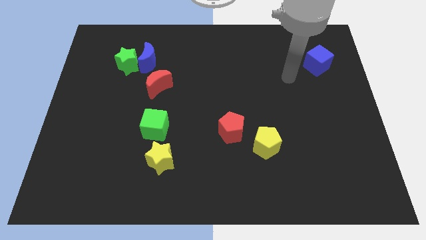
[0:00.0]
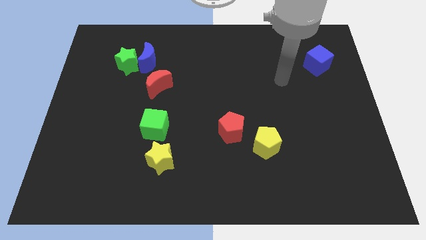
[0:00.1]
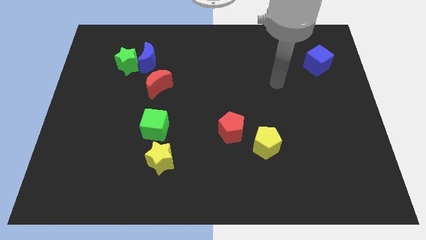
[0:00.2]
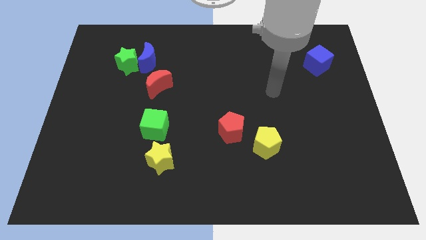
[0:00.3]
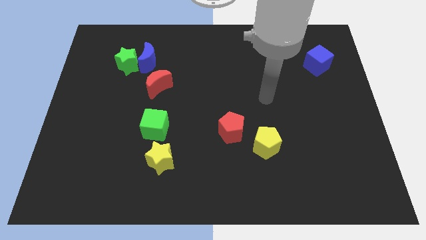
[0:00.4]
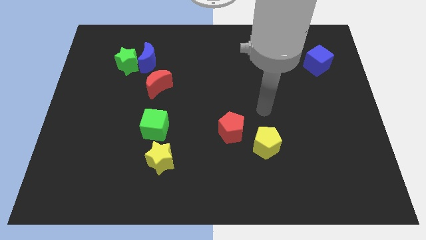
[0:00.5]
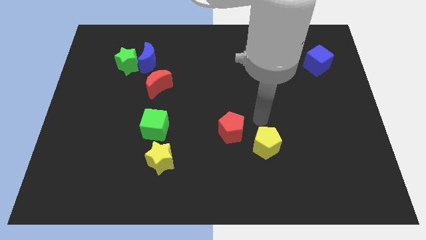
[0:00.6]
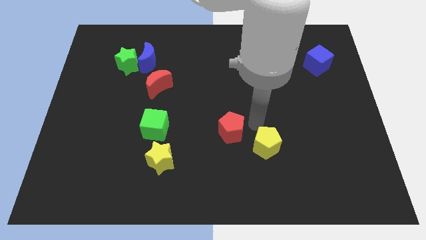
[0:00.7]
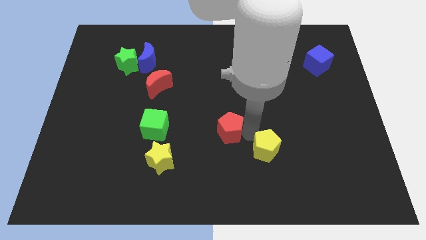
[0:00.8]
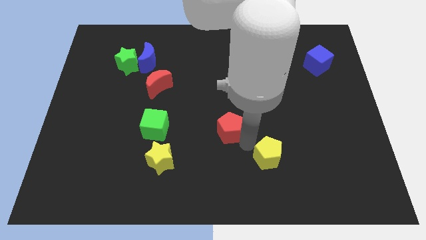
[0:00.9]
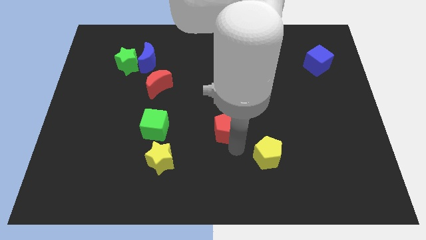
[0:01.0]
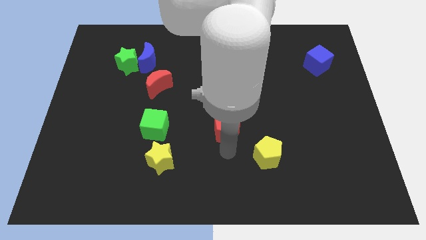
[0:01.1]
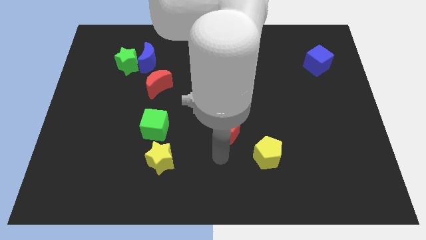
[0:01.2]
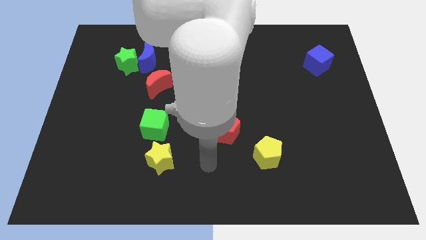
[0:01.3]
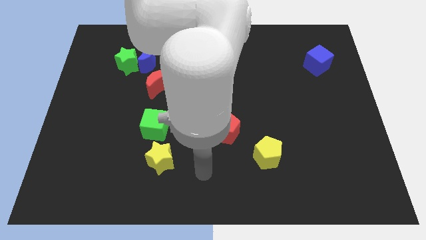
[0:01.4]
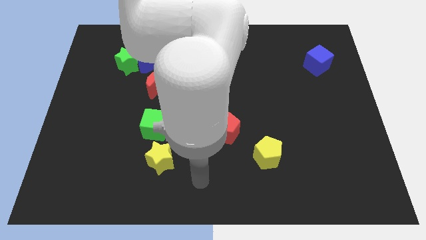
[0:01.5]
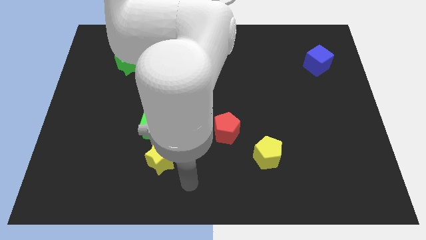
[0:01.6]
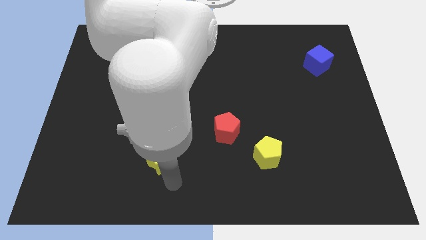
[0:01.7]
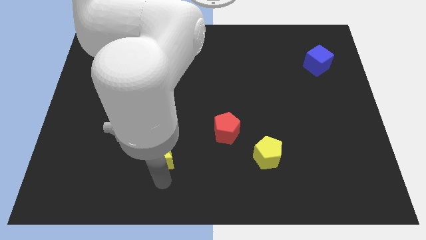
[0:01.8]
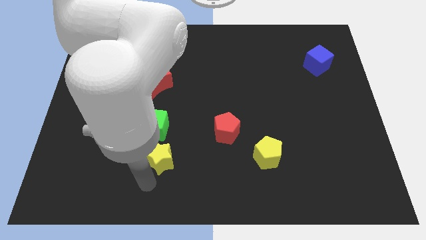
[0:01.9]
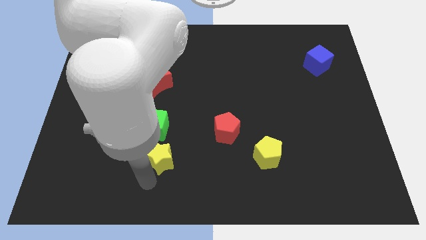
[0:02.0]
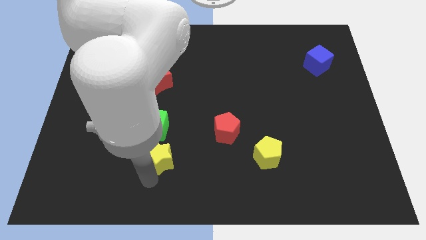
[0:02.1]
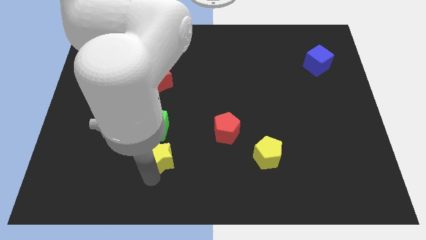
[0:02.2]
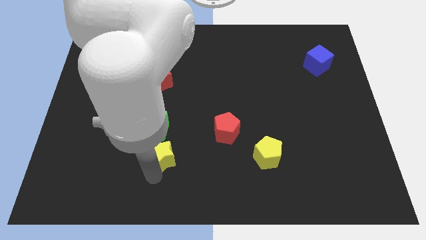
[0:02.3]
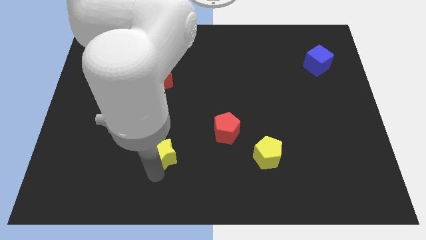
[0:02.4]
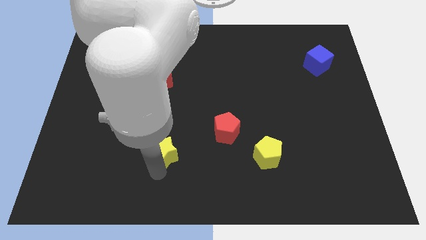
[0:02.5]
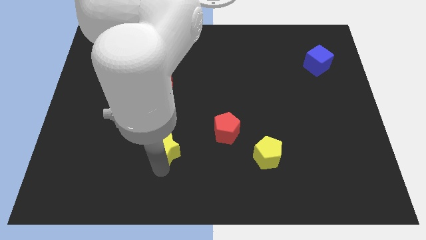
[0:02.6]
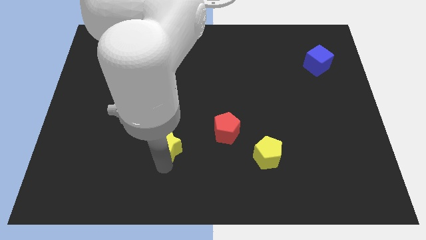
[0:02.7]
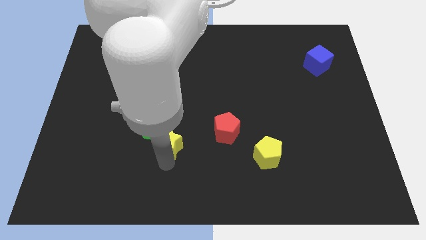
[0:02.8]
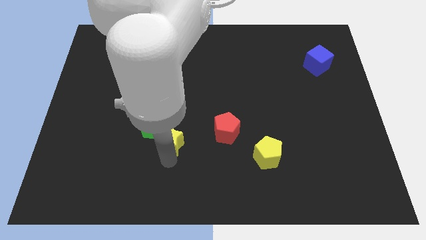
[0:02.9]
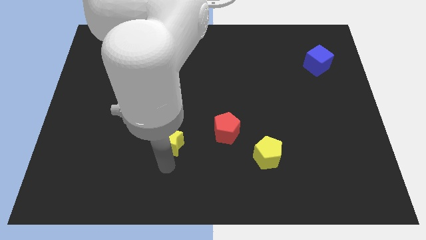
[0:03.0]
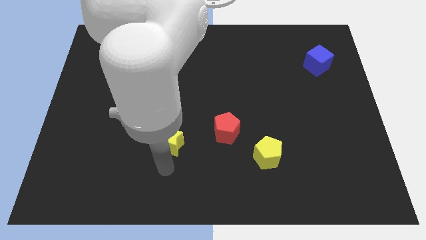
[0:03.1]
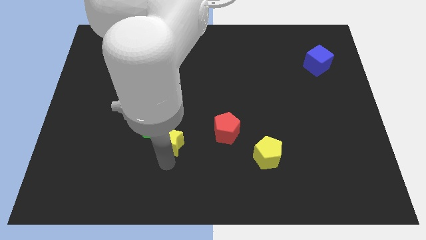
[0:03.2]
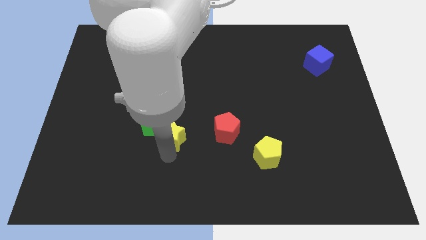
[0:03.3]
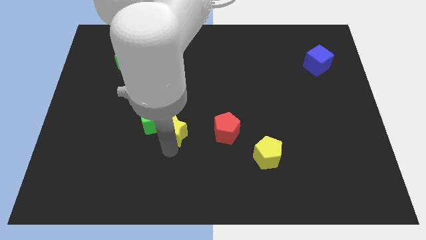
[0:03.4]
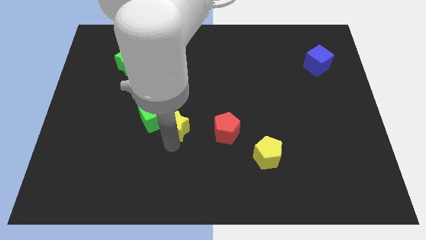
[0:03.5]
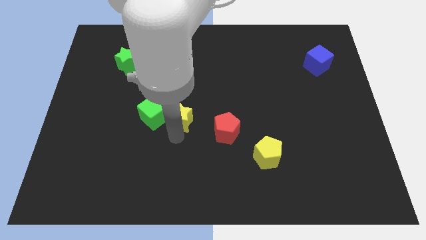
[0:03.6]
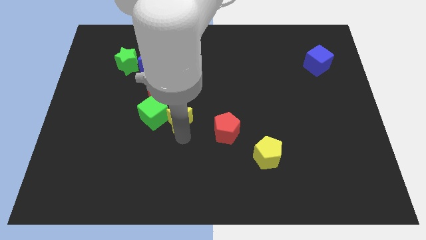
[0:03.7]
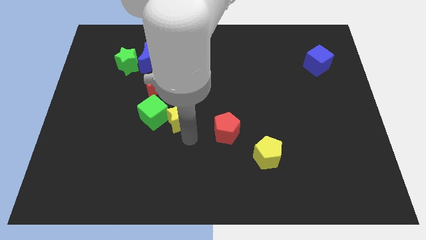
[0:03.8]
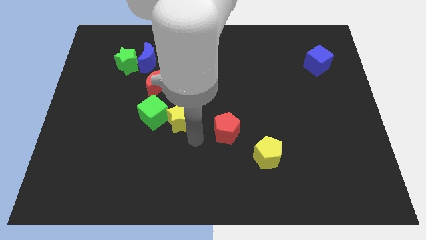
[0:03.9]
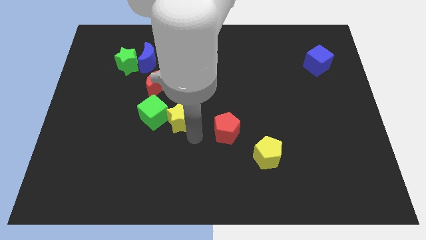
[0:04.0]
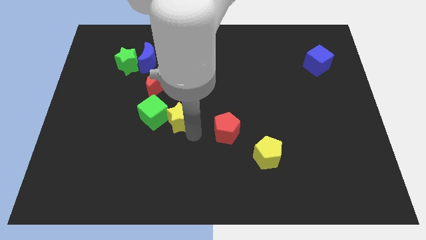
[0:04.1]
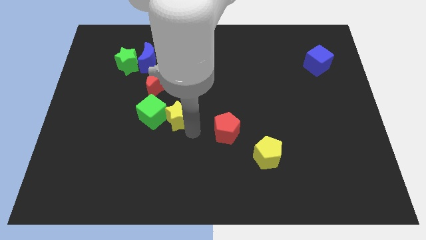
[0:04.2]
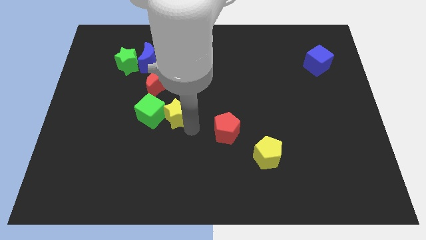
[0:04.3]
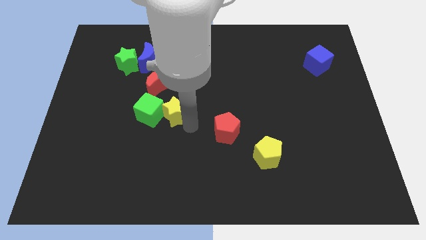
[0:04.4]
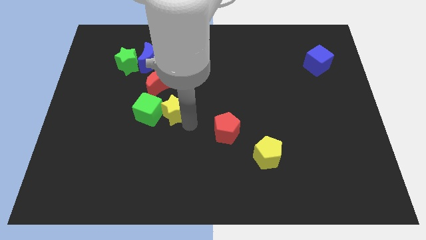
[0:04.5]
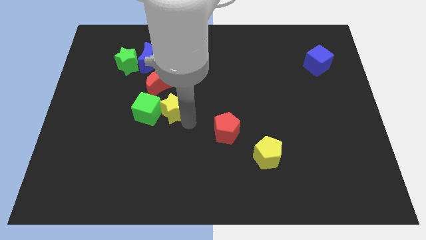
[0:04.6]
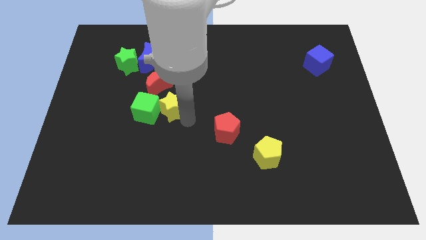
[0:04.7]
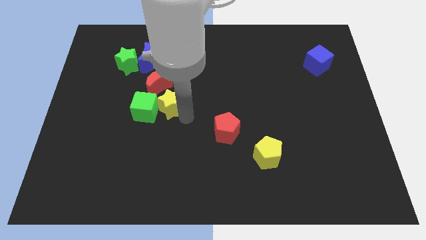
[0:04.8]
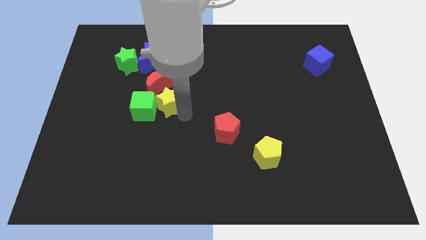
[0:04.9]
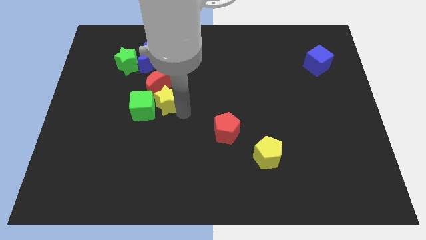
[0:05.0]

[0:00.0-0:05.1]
put the yellow star towards the red moon

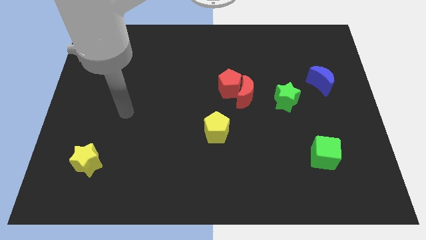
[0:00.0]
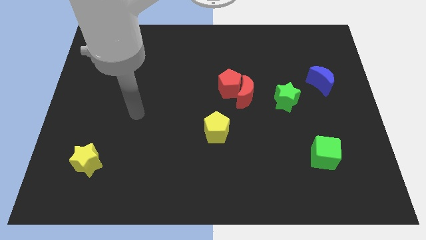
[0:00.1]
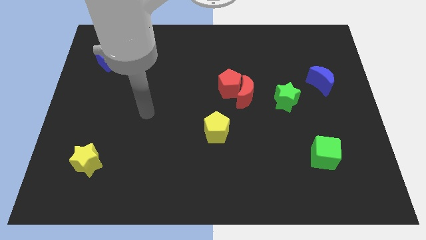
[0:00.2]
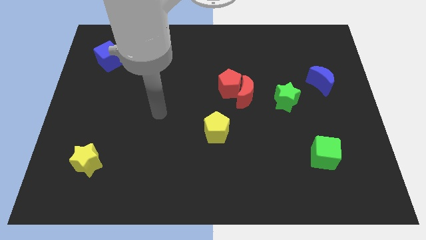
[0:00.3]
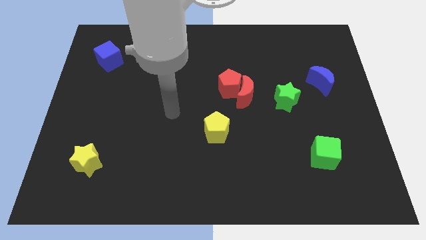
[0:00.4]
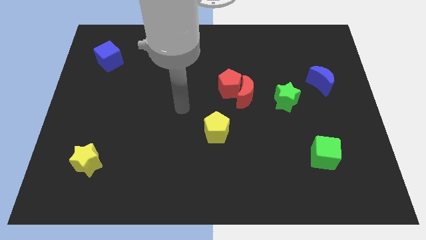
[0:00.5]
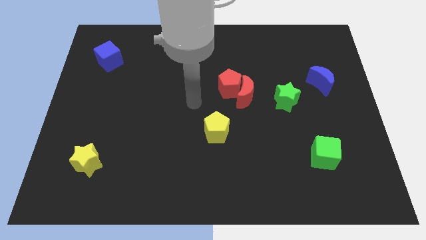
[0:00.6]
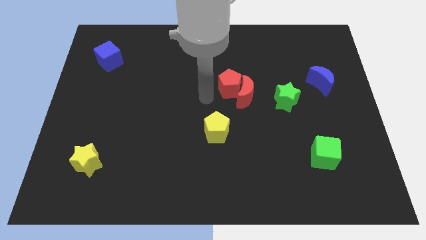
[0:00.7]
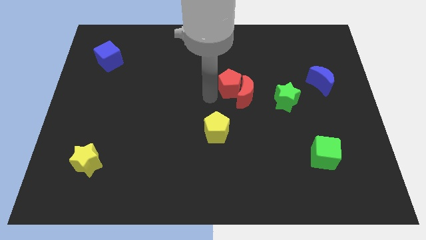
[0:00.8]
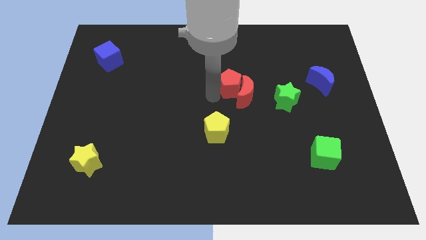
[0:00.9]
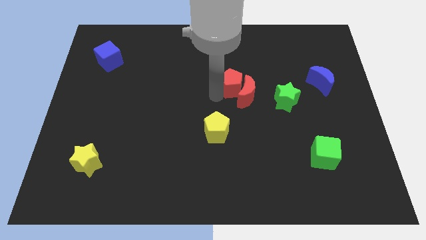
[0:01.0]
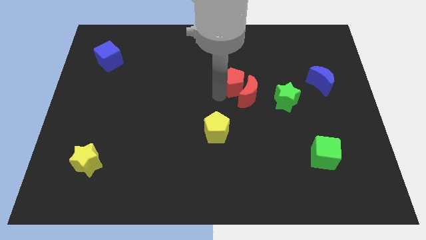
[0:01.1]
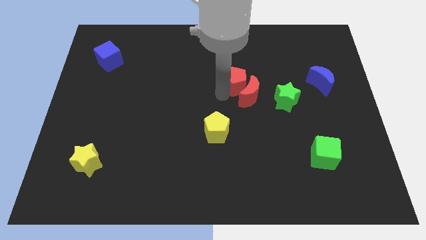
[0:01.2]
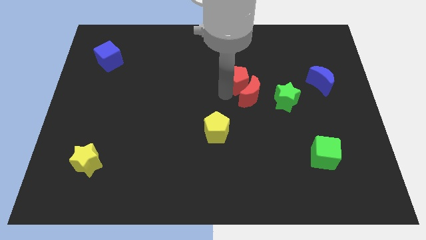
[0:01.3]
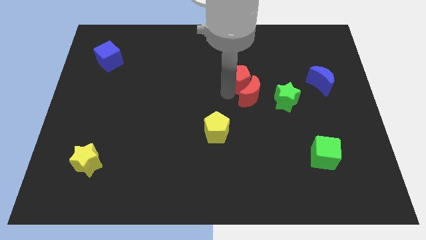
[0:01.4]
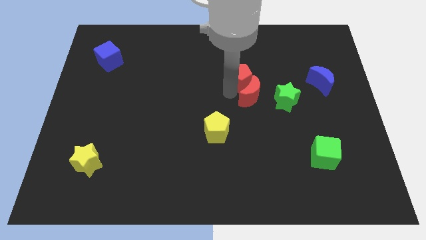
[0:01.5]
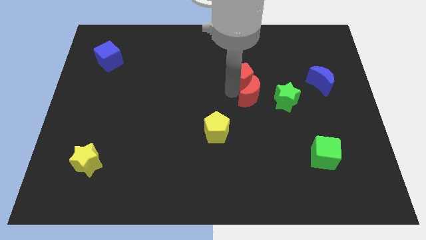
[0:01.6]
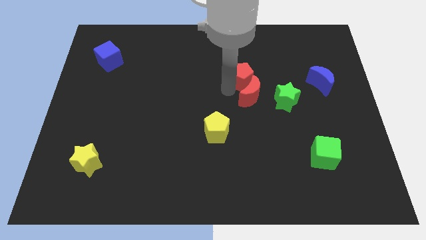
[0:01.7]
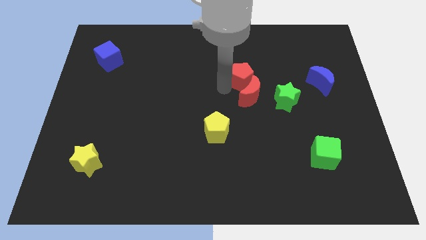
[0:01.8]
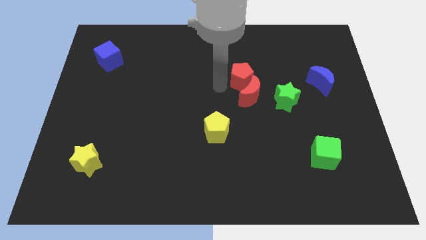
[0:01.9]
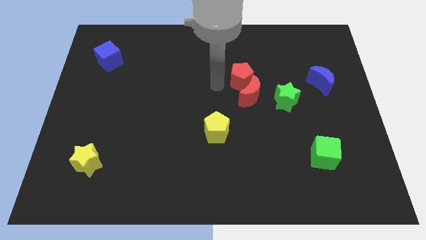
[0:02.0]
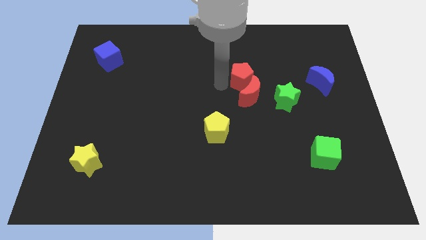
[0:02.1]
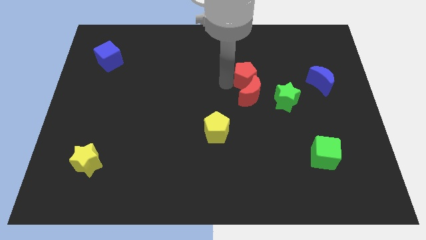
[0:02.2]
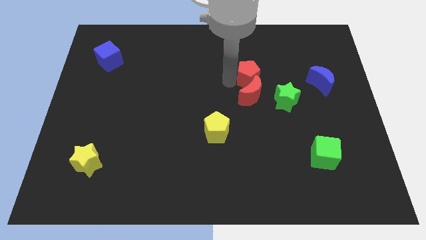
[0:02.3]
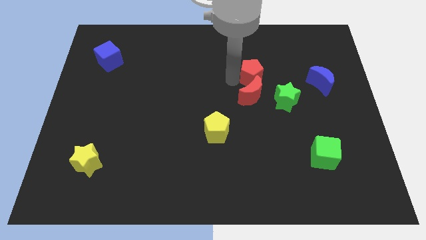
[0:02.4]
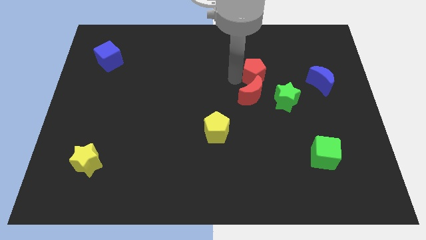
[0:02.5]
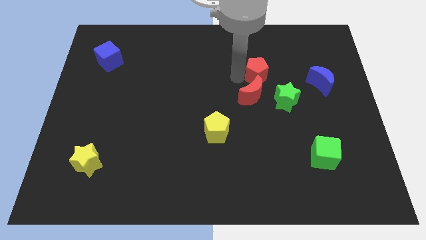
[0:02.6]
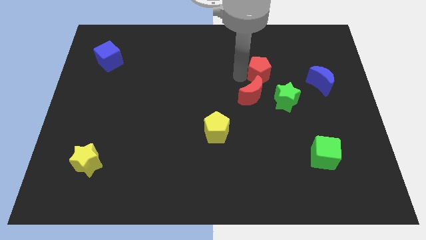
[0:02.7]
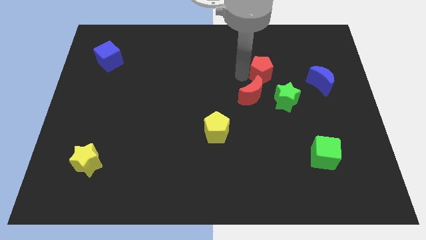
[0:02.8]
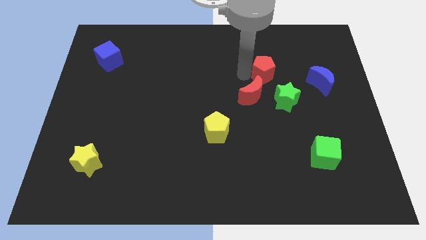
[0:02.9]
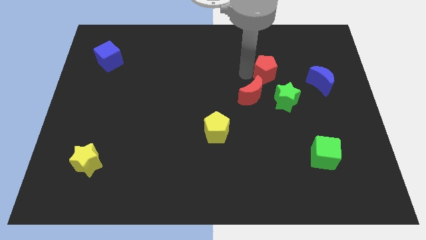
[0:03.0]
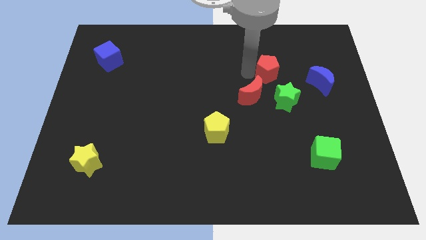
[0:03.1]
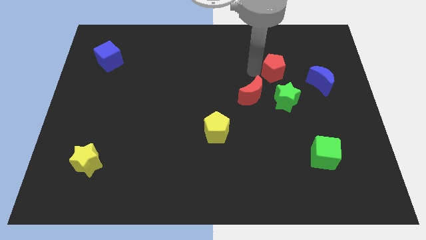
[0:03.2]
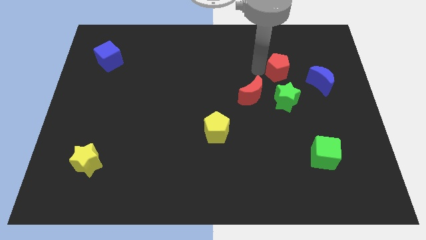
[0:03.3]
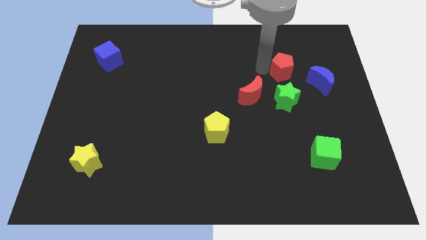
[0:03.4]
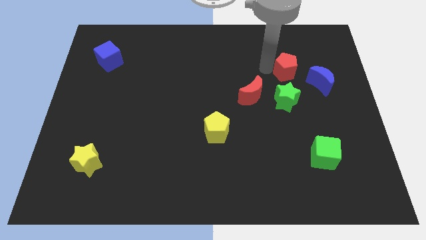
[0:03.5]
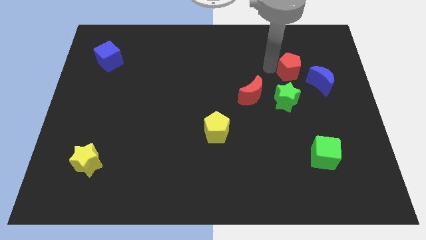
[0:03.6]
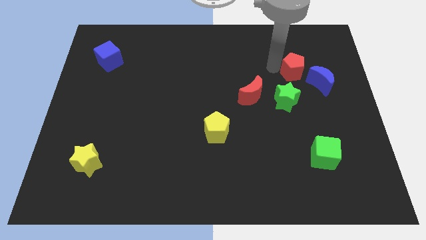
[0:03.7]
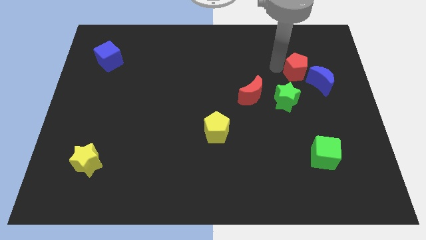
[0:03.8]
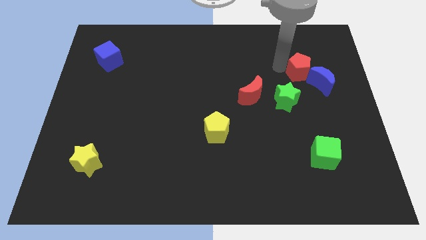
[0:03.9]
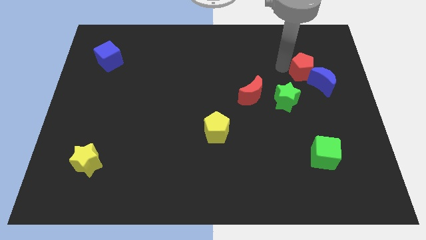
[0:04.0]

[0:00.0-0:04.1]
slide the red pentagon towards the blue moon
